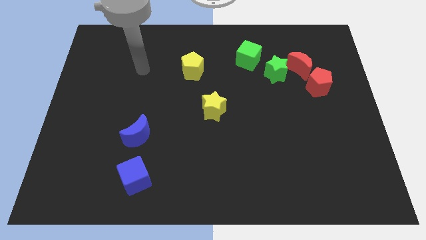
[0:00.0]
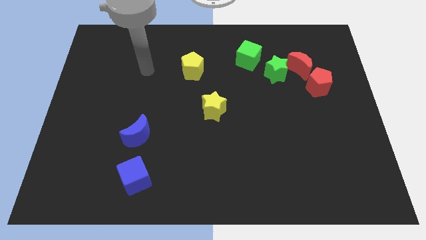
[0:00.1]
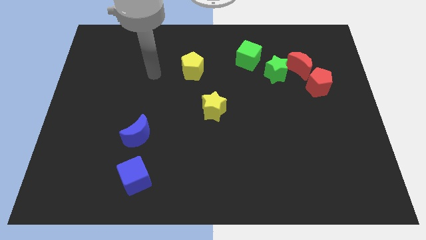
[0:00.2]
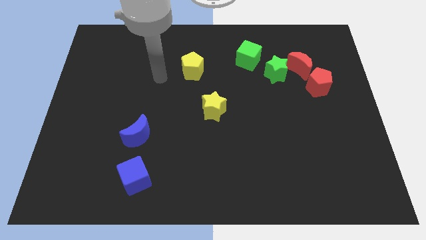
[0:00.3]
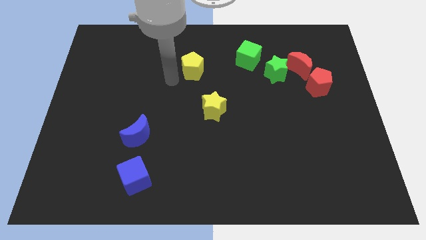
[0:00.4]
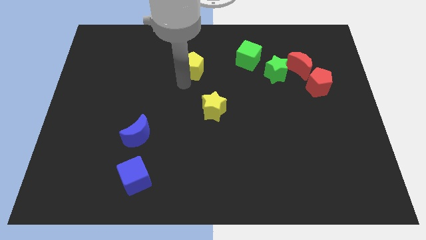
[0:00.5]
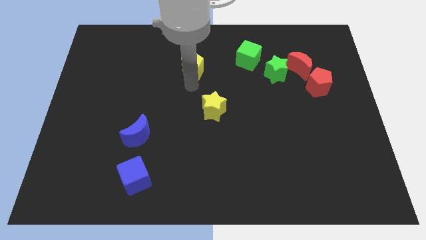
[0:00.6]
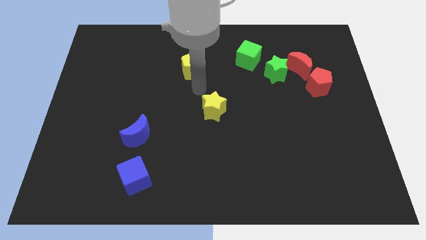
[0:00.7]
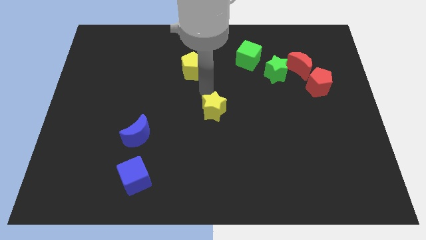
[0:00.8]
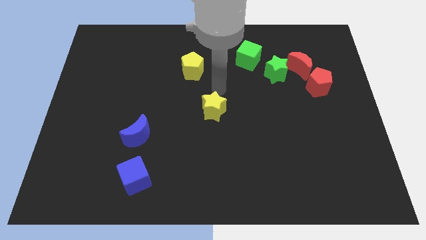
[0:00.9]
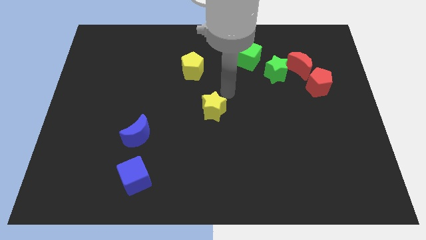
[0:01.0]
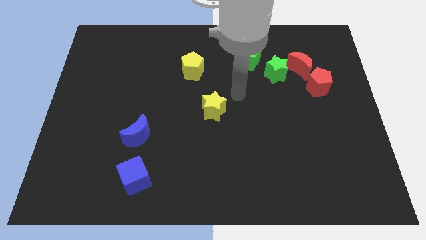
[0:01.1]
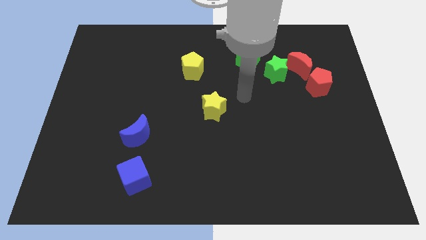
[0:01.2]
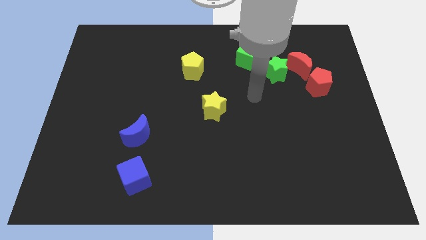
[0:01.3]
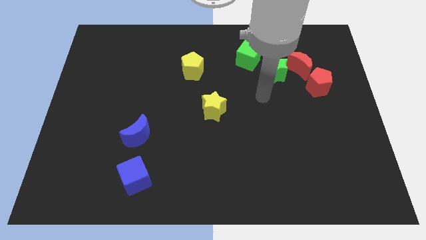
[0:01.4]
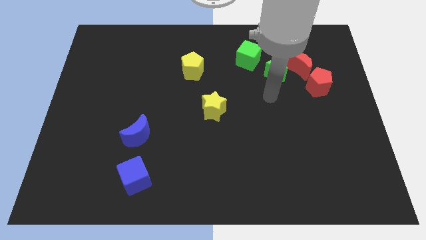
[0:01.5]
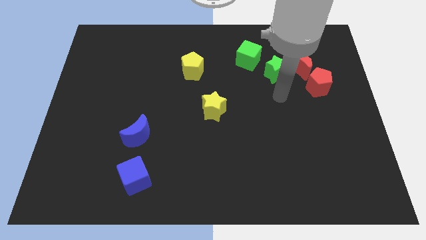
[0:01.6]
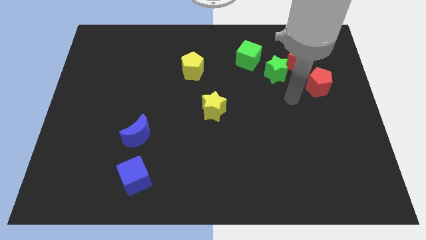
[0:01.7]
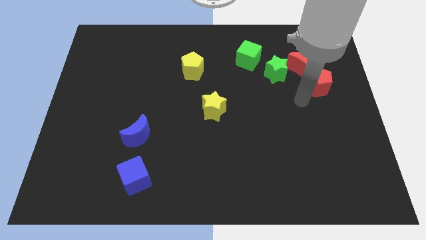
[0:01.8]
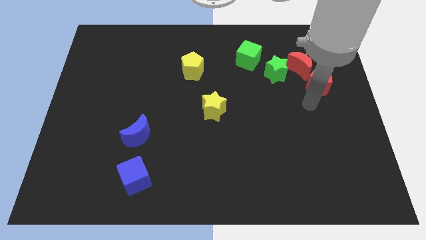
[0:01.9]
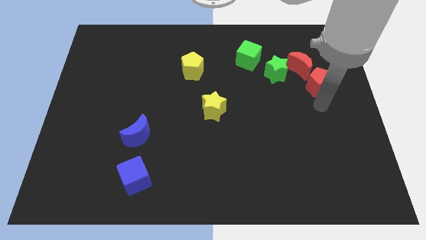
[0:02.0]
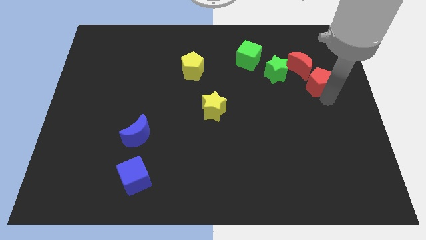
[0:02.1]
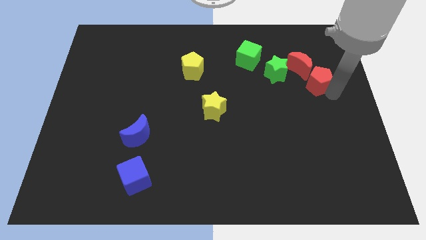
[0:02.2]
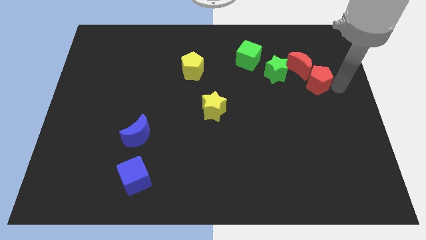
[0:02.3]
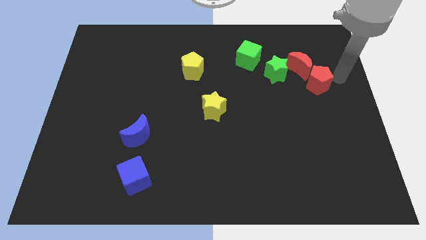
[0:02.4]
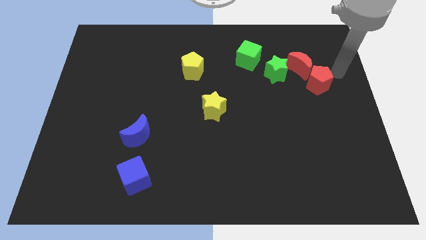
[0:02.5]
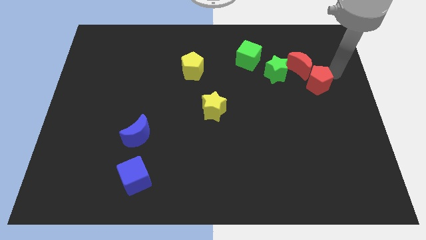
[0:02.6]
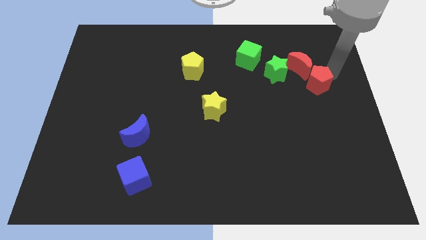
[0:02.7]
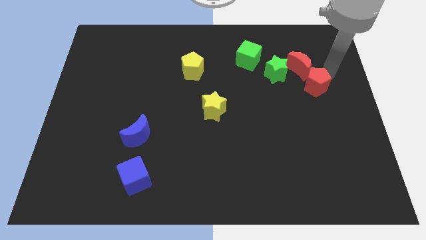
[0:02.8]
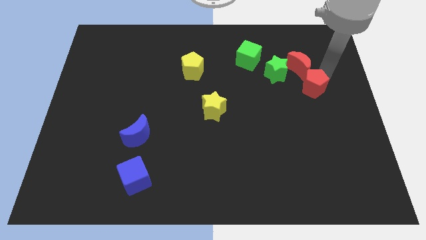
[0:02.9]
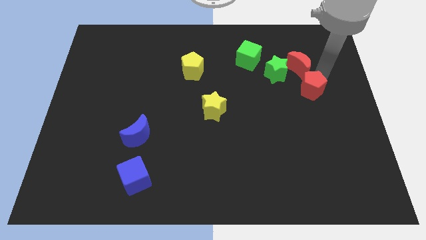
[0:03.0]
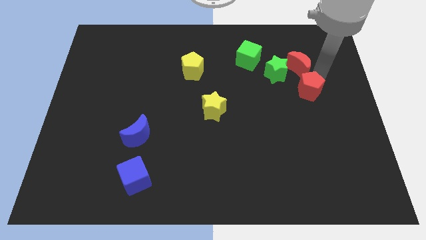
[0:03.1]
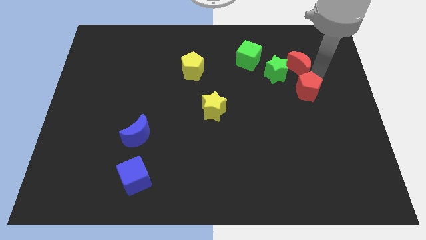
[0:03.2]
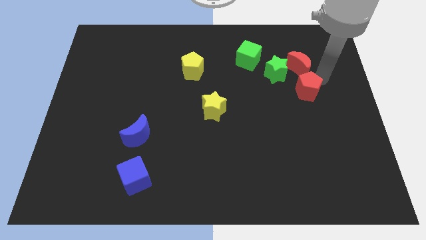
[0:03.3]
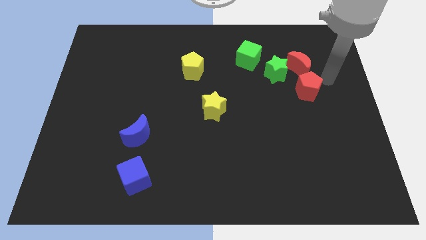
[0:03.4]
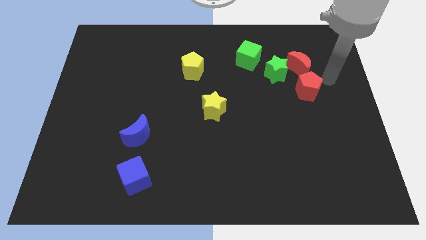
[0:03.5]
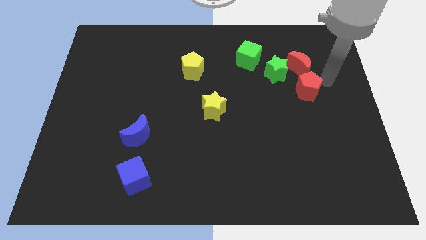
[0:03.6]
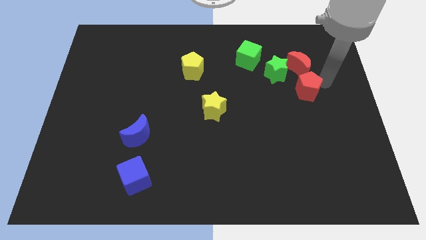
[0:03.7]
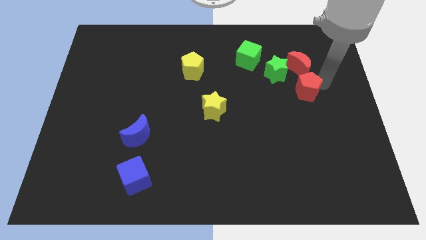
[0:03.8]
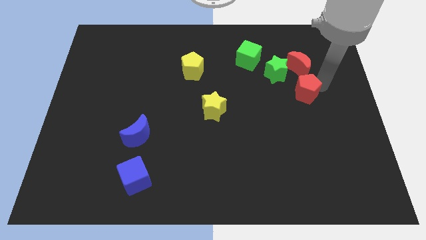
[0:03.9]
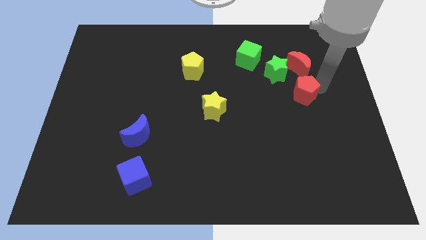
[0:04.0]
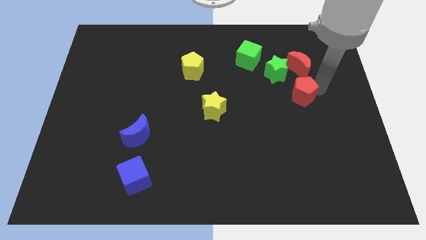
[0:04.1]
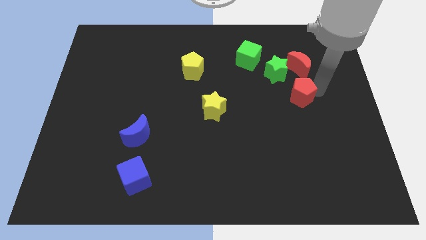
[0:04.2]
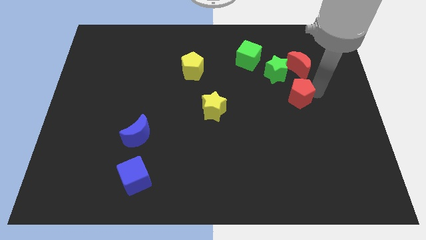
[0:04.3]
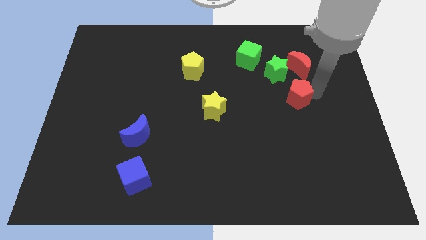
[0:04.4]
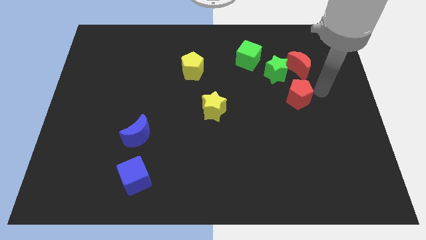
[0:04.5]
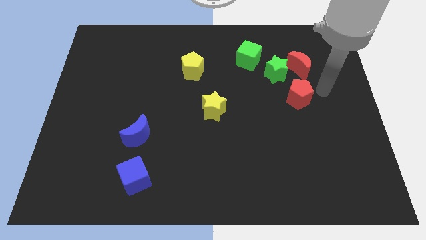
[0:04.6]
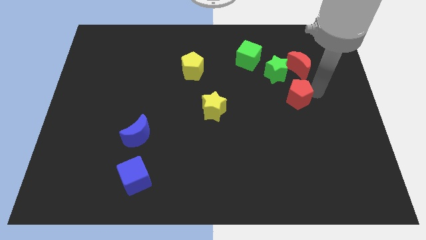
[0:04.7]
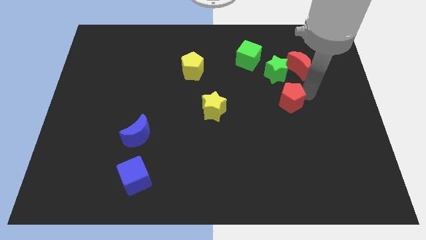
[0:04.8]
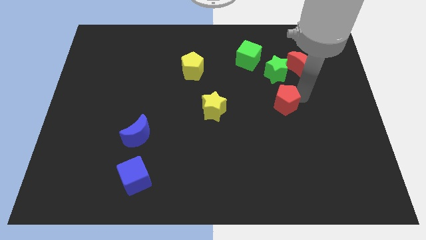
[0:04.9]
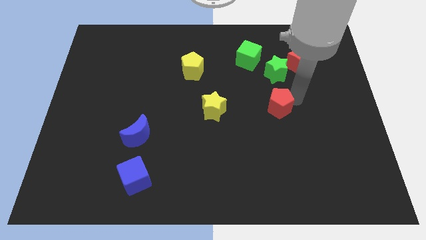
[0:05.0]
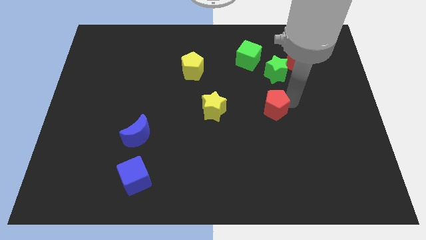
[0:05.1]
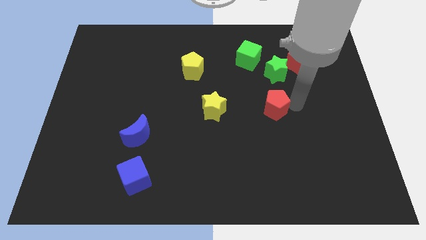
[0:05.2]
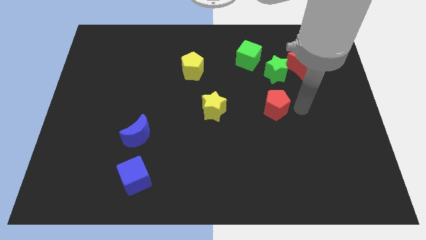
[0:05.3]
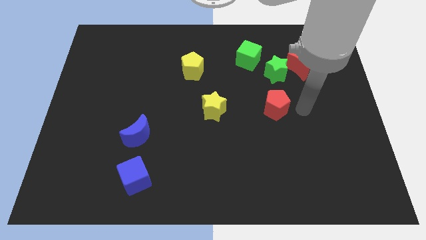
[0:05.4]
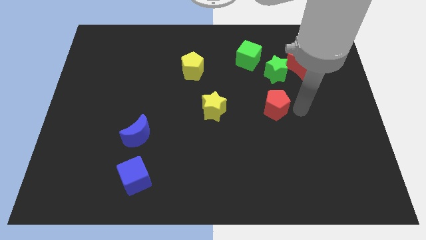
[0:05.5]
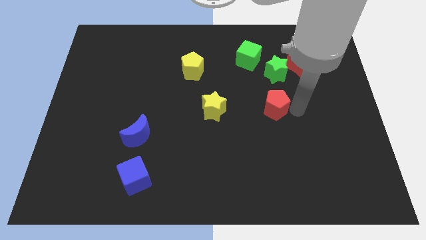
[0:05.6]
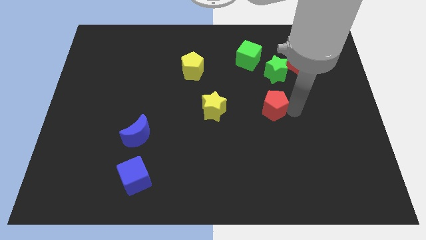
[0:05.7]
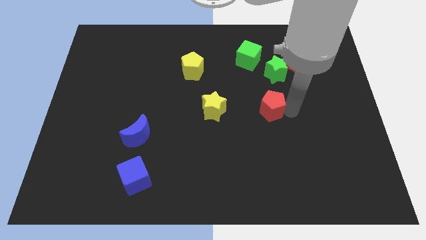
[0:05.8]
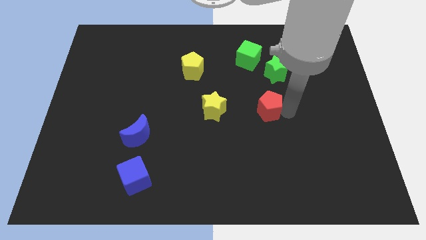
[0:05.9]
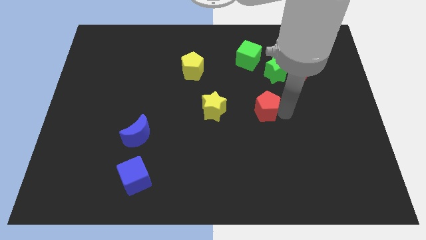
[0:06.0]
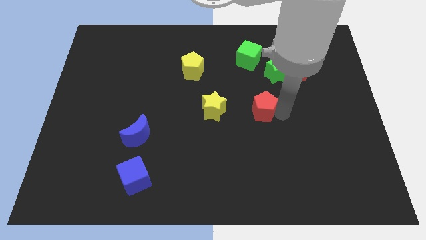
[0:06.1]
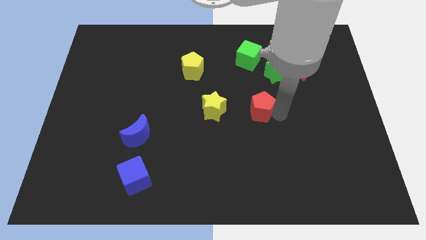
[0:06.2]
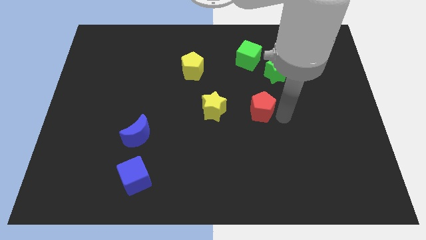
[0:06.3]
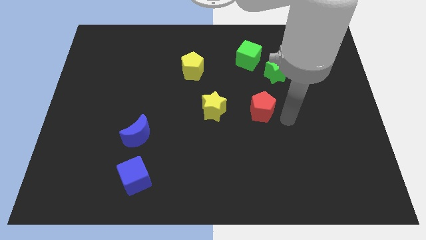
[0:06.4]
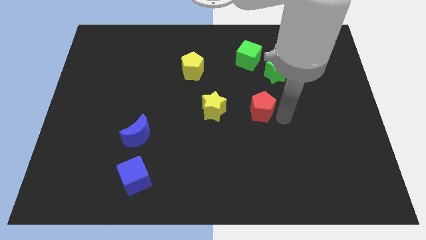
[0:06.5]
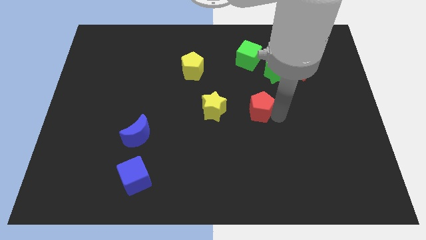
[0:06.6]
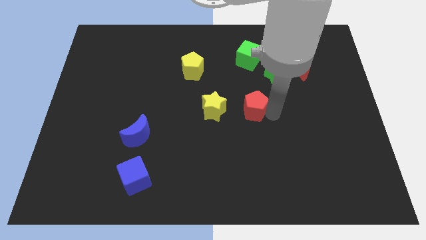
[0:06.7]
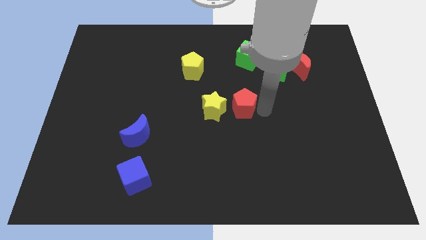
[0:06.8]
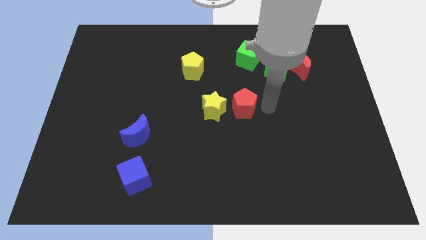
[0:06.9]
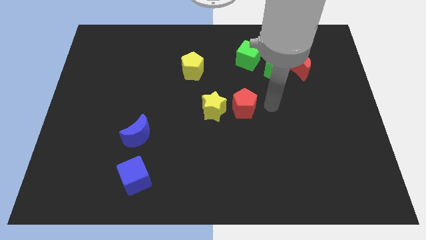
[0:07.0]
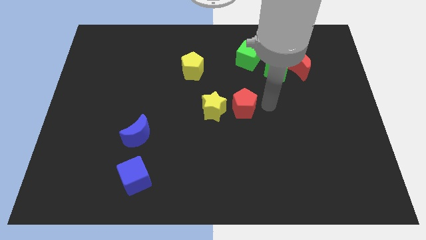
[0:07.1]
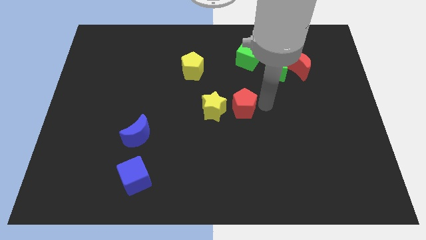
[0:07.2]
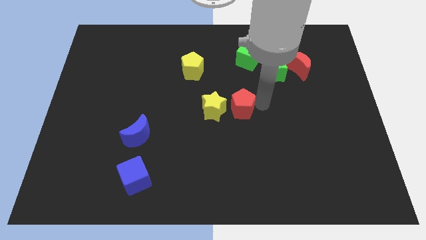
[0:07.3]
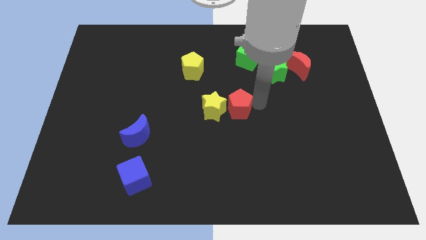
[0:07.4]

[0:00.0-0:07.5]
move the red pentagon next to the yellow star

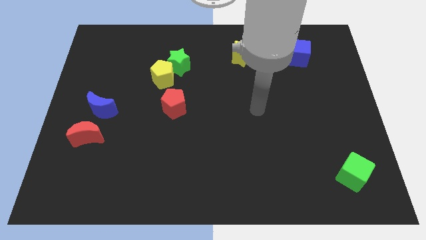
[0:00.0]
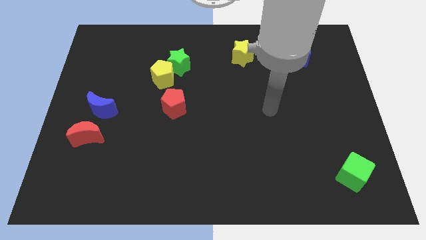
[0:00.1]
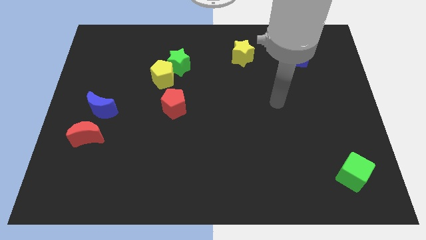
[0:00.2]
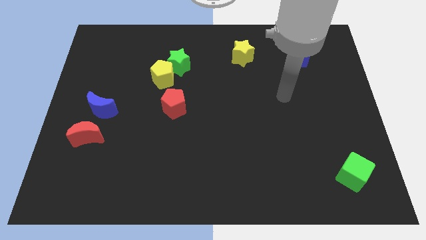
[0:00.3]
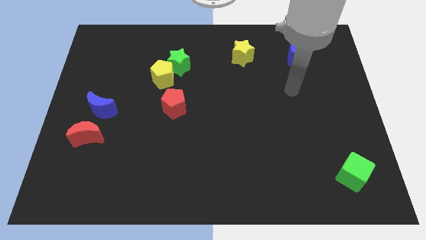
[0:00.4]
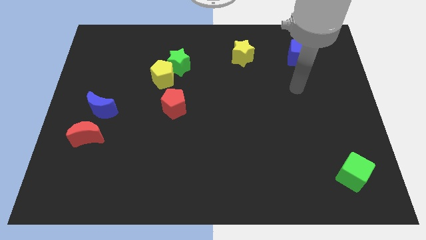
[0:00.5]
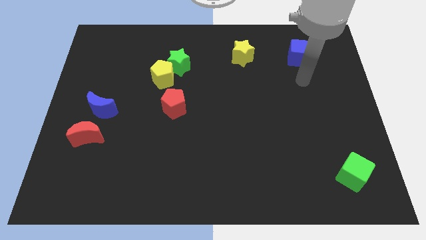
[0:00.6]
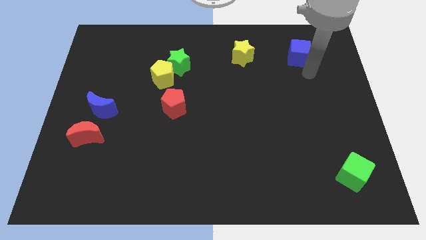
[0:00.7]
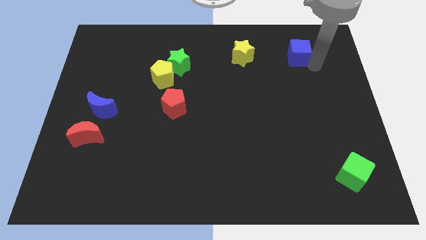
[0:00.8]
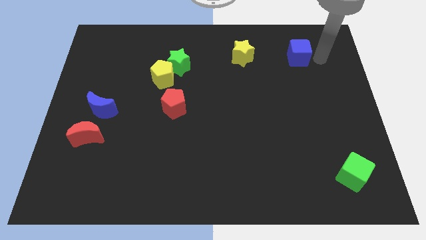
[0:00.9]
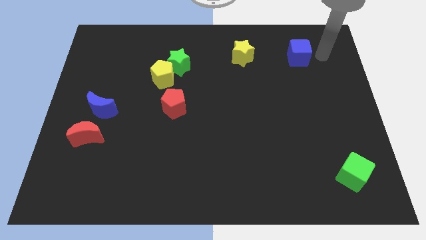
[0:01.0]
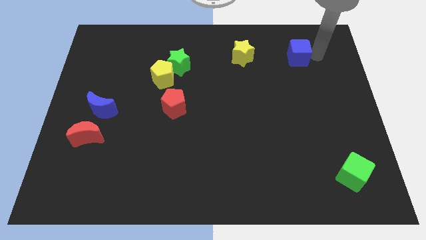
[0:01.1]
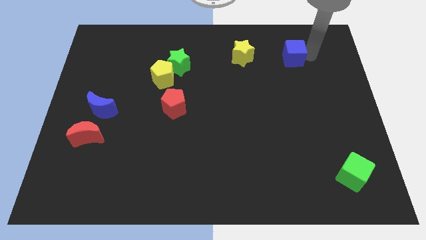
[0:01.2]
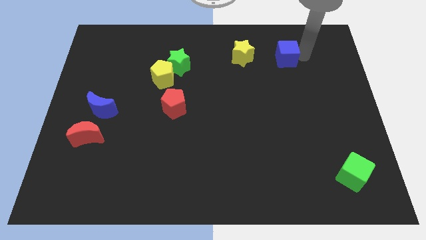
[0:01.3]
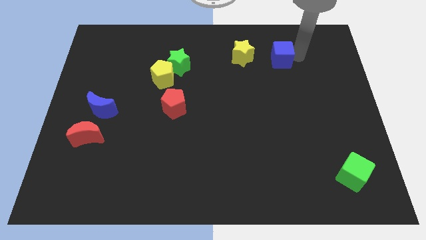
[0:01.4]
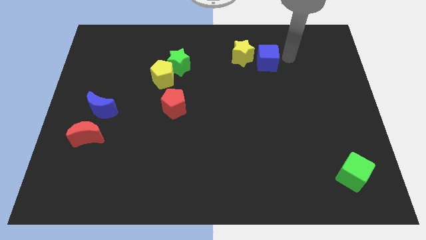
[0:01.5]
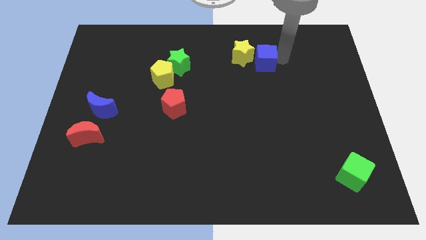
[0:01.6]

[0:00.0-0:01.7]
put the blue cube next to the yellow star
